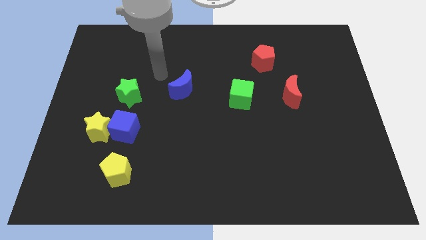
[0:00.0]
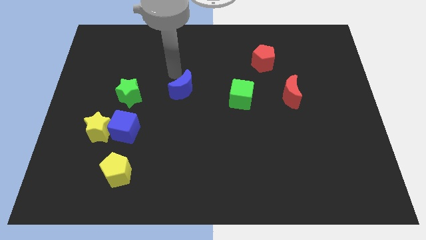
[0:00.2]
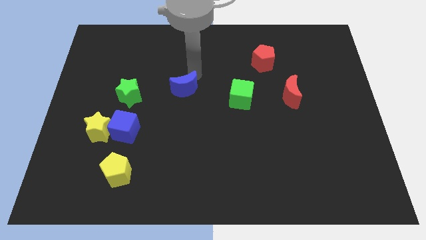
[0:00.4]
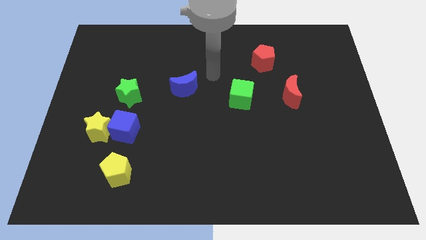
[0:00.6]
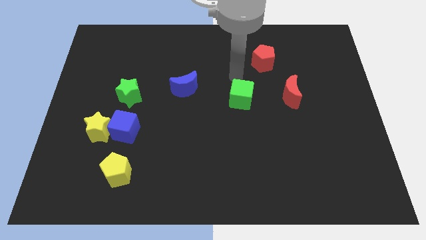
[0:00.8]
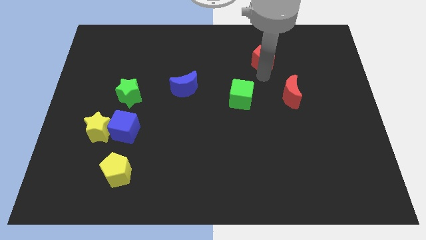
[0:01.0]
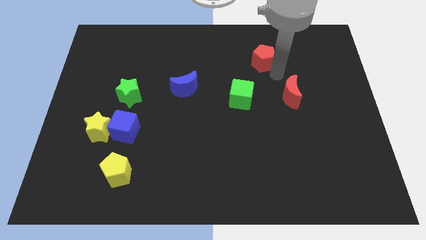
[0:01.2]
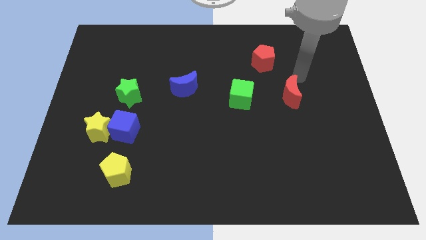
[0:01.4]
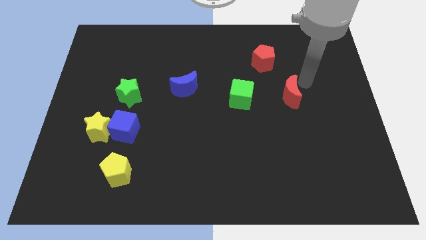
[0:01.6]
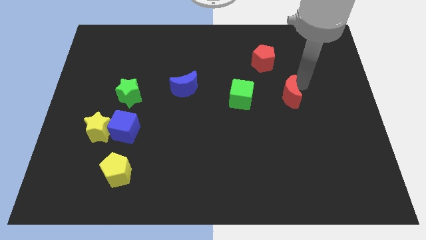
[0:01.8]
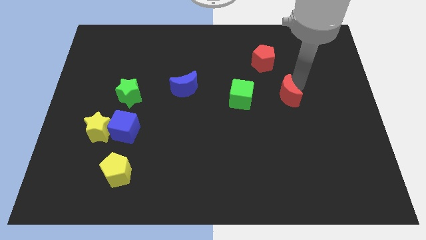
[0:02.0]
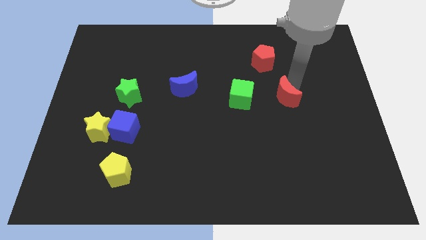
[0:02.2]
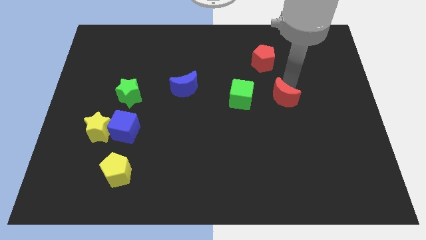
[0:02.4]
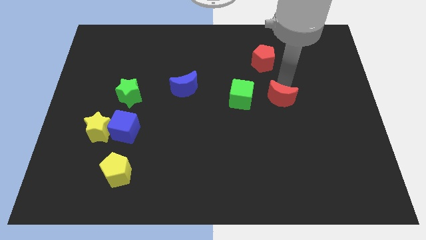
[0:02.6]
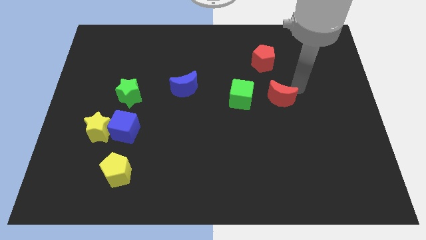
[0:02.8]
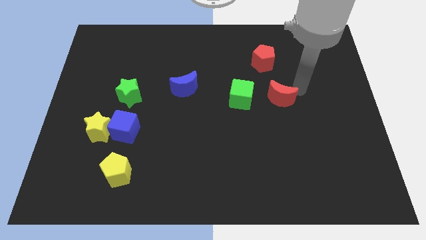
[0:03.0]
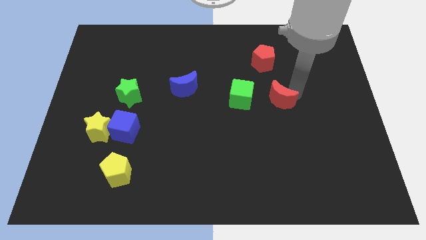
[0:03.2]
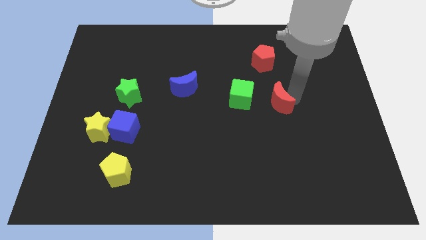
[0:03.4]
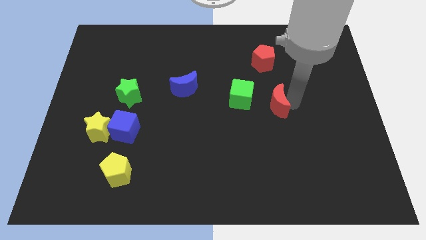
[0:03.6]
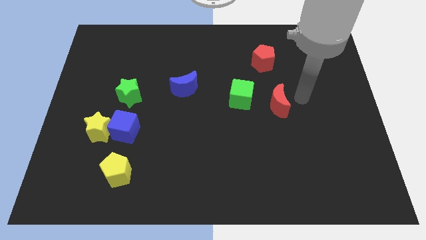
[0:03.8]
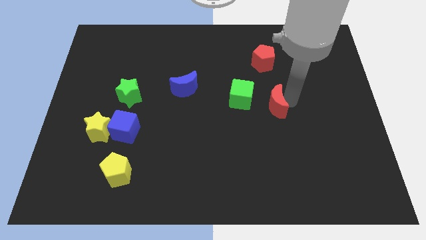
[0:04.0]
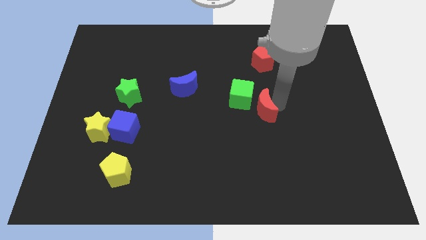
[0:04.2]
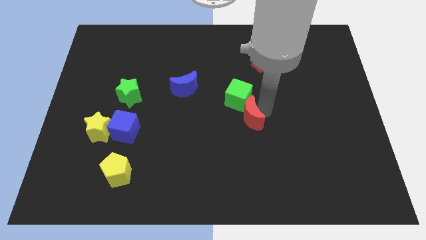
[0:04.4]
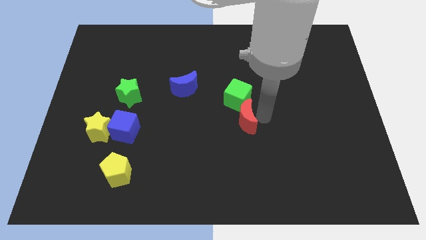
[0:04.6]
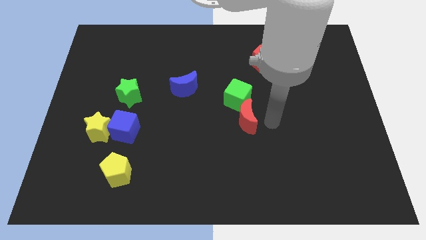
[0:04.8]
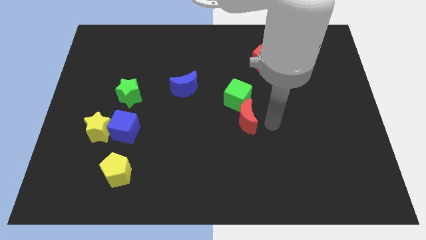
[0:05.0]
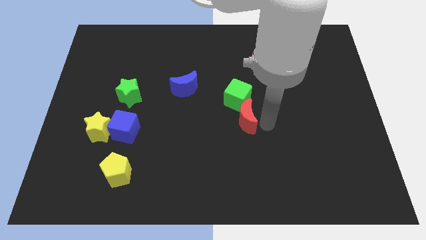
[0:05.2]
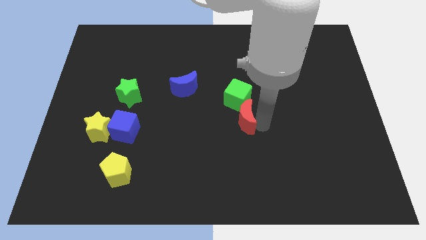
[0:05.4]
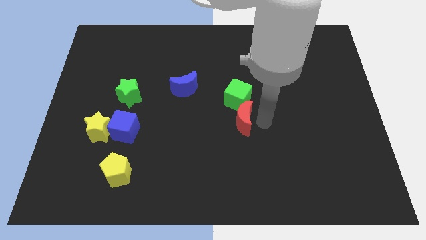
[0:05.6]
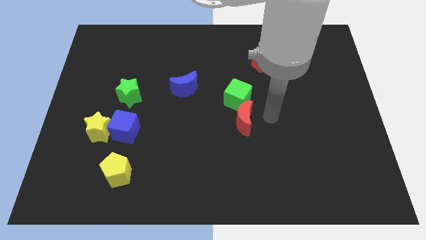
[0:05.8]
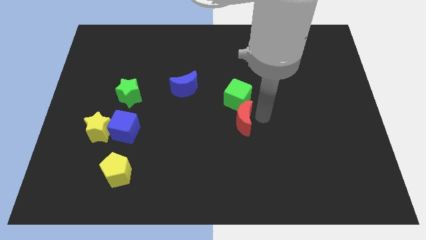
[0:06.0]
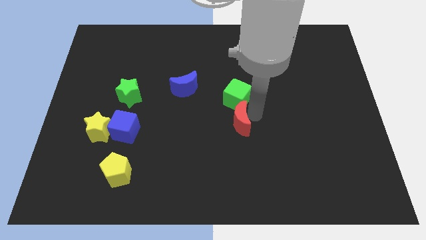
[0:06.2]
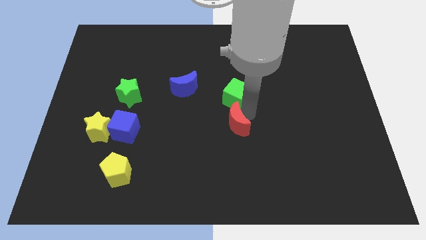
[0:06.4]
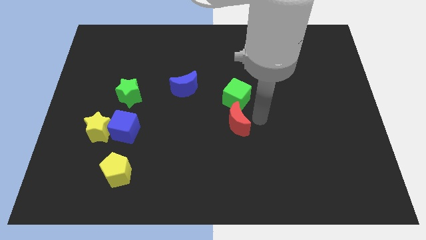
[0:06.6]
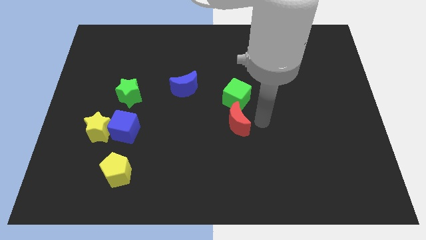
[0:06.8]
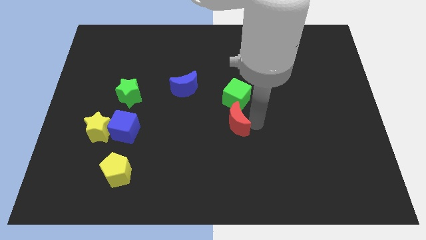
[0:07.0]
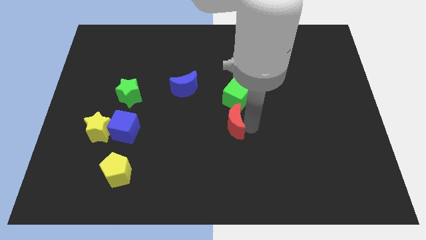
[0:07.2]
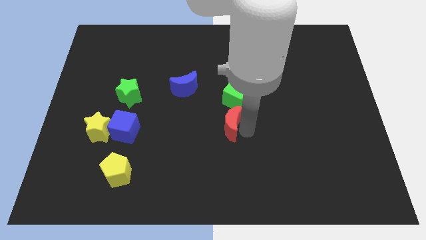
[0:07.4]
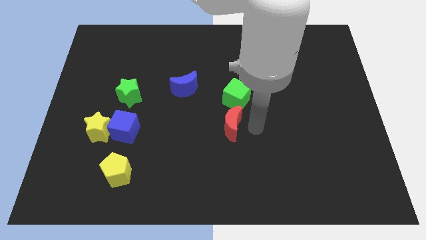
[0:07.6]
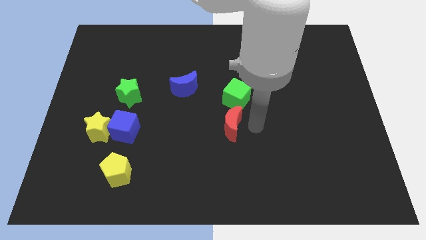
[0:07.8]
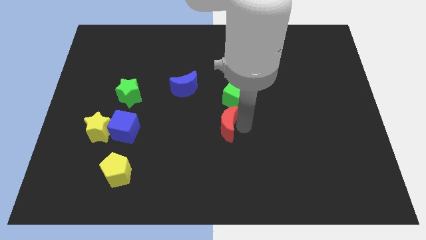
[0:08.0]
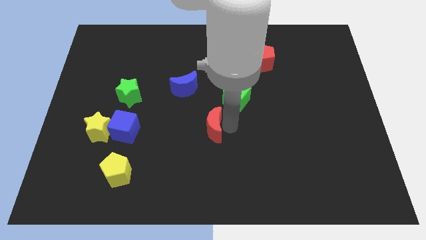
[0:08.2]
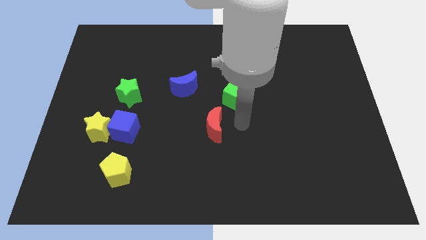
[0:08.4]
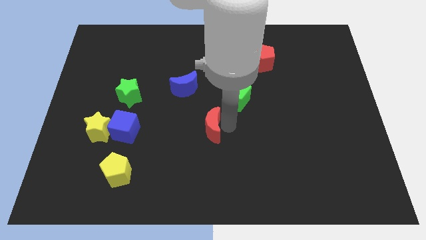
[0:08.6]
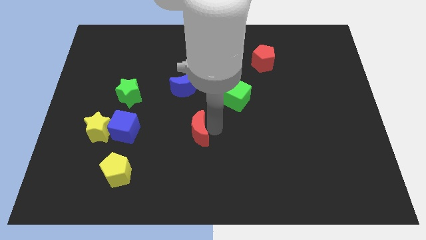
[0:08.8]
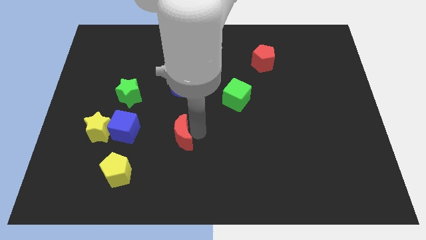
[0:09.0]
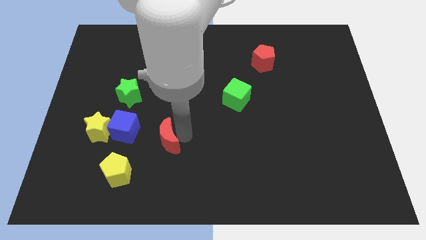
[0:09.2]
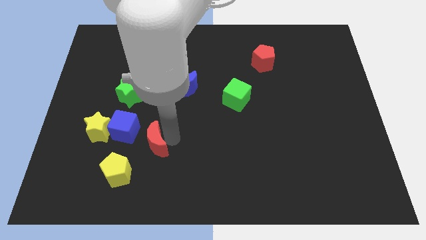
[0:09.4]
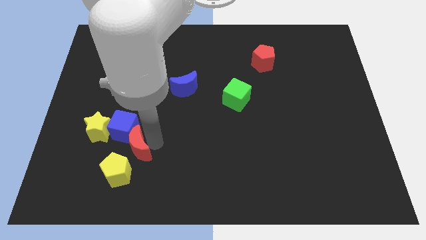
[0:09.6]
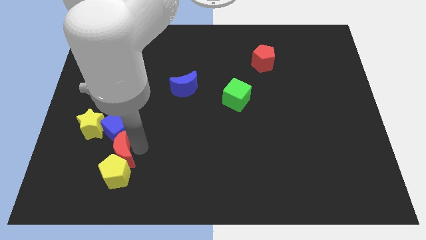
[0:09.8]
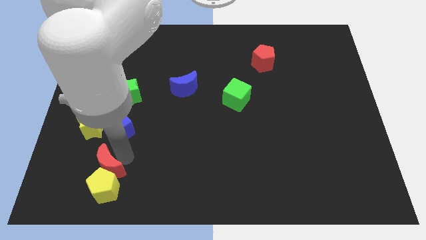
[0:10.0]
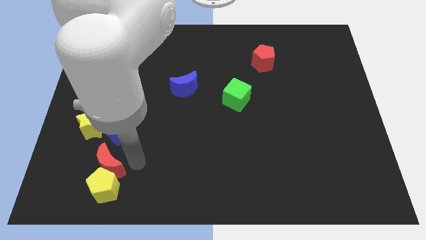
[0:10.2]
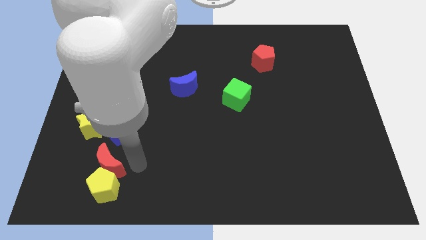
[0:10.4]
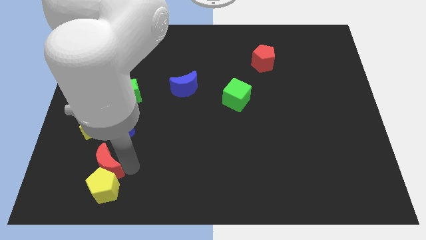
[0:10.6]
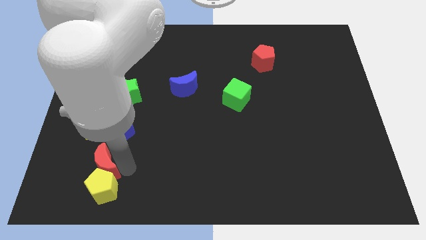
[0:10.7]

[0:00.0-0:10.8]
push the red moon below the yellow star

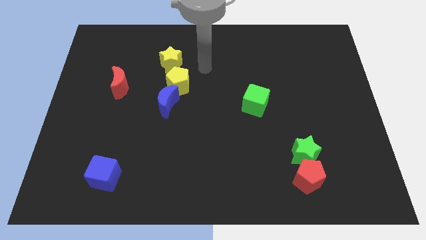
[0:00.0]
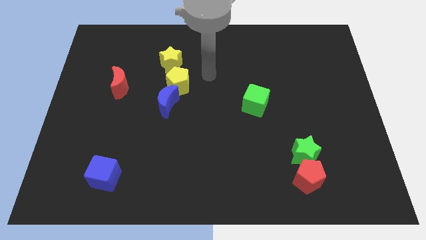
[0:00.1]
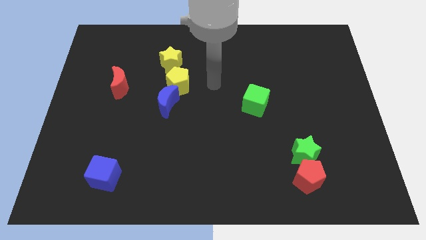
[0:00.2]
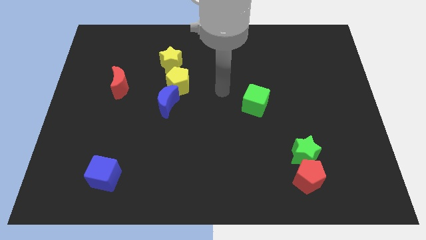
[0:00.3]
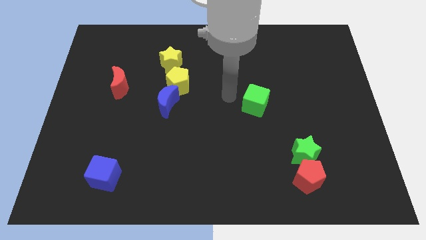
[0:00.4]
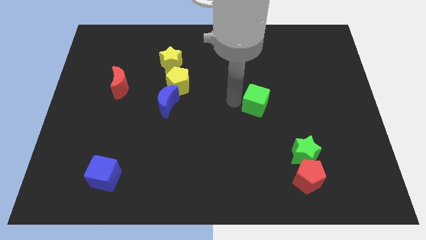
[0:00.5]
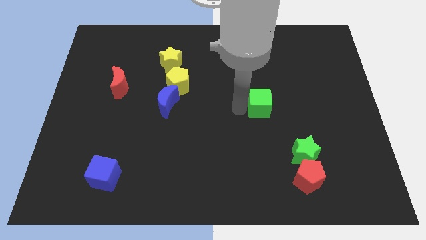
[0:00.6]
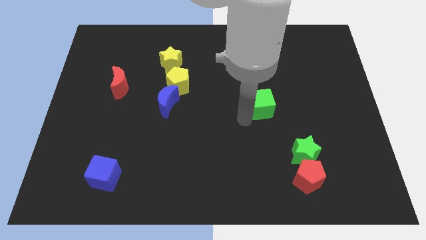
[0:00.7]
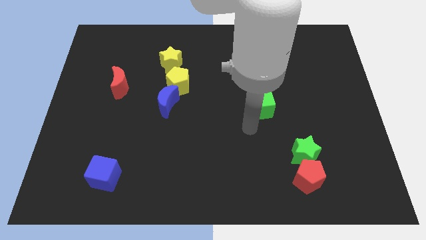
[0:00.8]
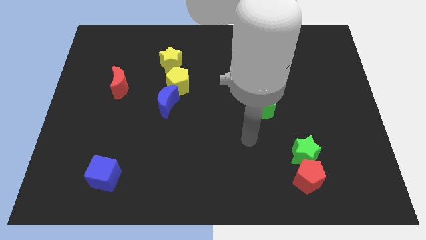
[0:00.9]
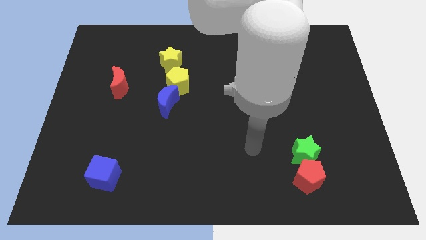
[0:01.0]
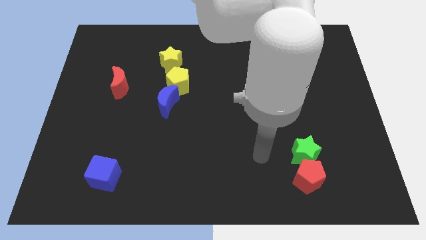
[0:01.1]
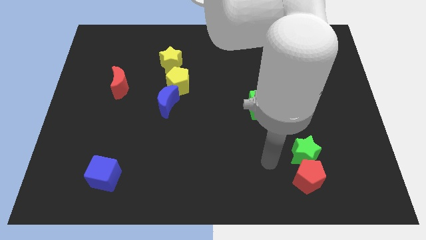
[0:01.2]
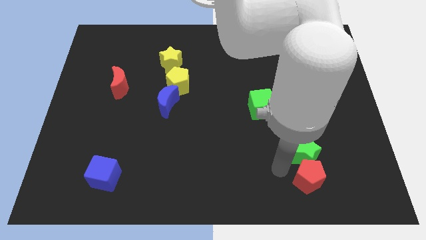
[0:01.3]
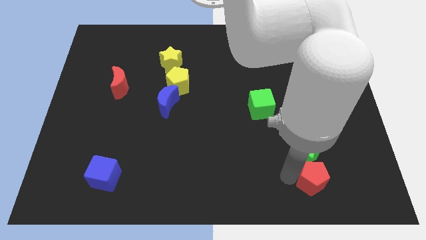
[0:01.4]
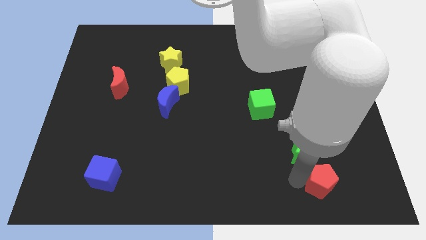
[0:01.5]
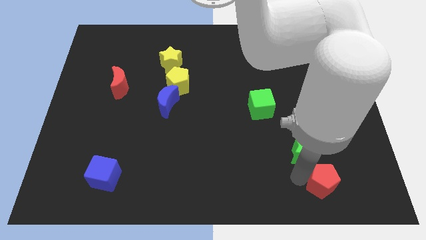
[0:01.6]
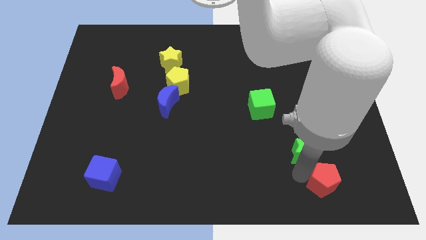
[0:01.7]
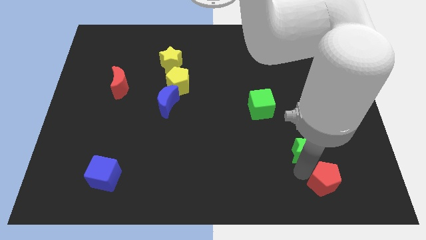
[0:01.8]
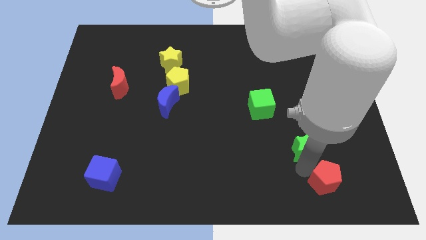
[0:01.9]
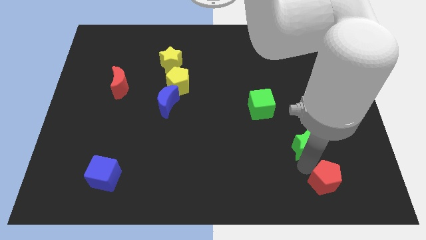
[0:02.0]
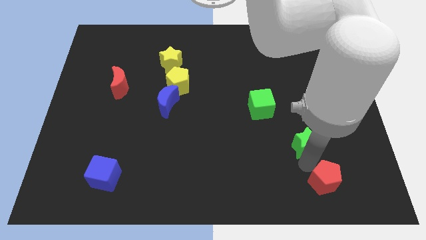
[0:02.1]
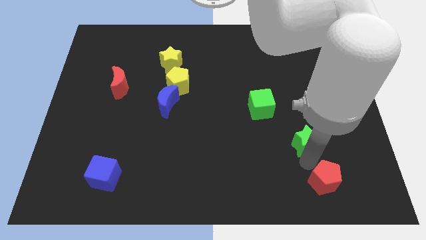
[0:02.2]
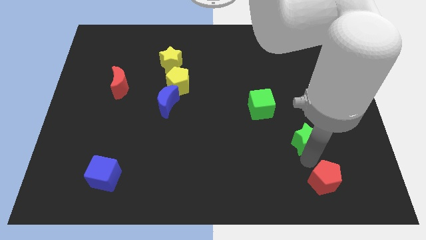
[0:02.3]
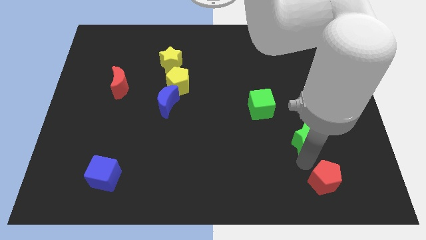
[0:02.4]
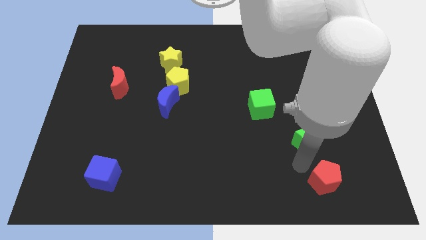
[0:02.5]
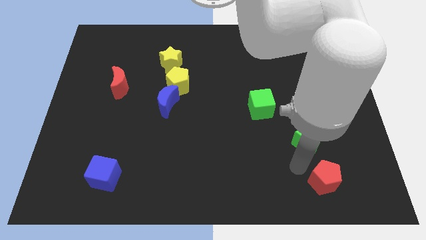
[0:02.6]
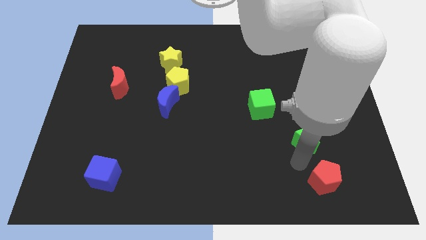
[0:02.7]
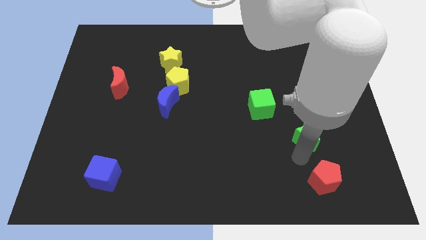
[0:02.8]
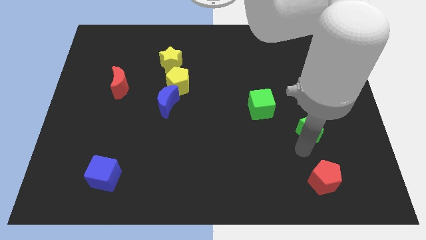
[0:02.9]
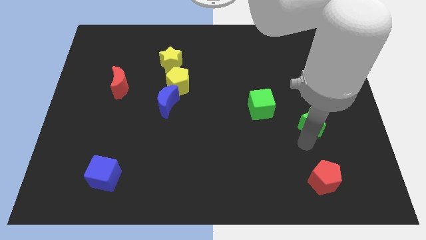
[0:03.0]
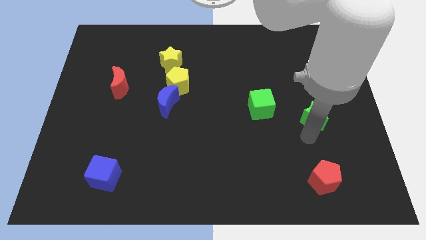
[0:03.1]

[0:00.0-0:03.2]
slide the green star just right of the green cube
